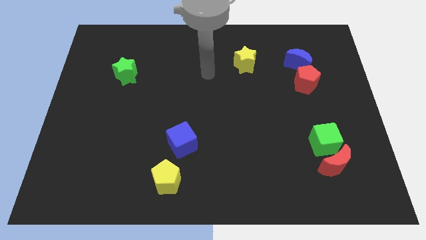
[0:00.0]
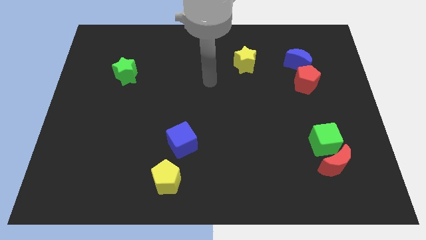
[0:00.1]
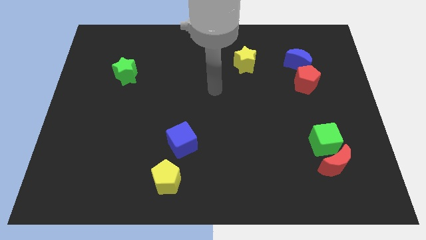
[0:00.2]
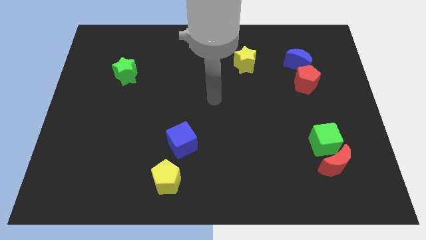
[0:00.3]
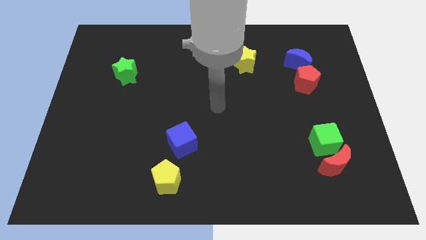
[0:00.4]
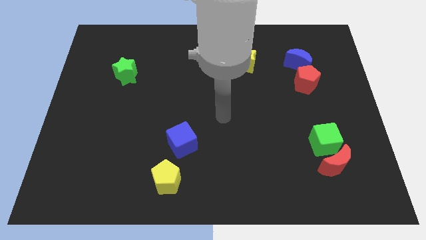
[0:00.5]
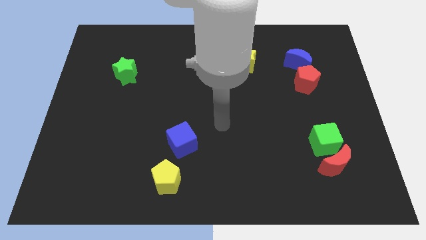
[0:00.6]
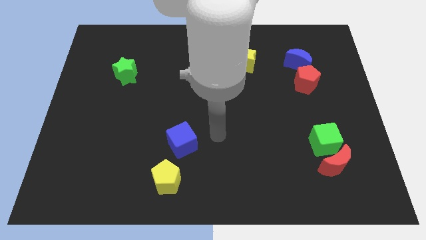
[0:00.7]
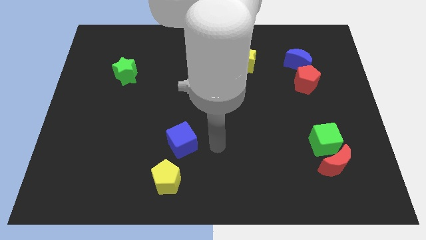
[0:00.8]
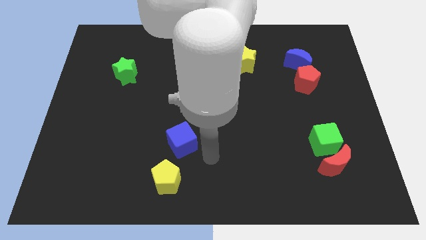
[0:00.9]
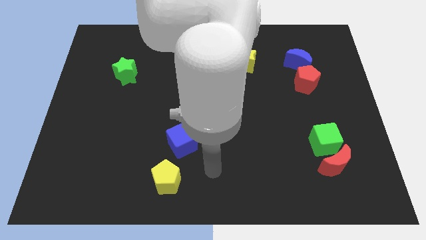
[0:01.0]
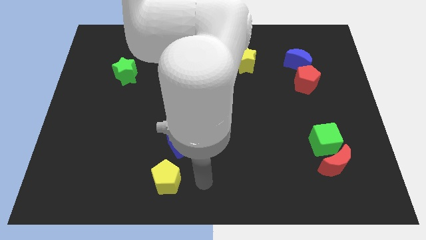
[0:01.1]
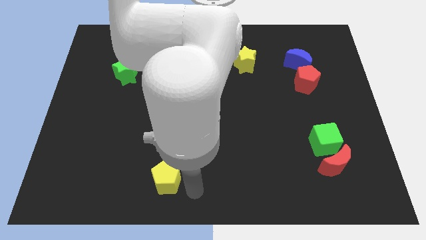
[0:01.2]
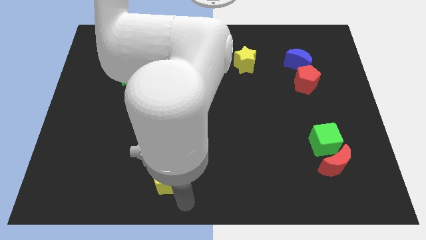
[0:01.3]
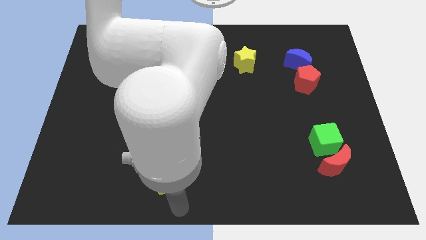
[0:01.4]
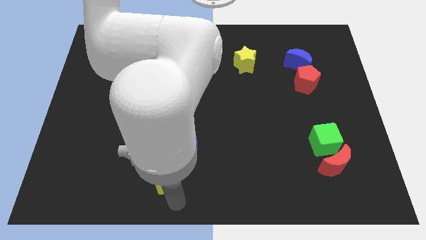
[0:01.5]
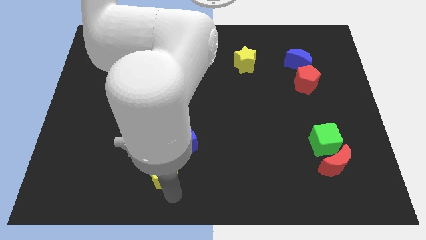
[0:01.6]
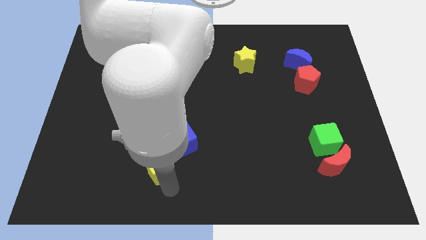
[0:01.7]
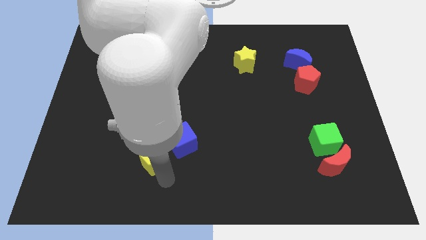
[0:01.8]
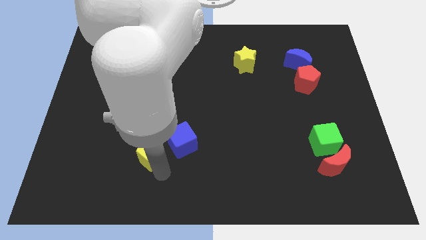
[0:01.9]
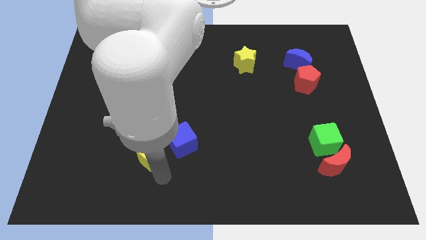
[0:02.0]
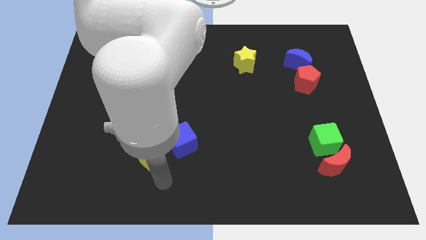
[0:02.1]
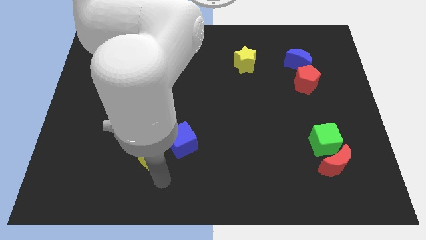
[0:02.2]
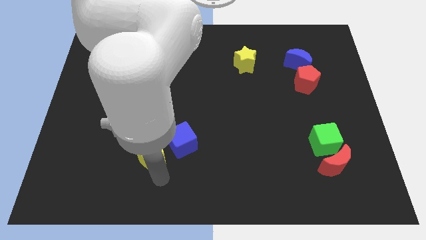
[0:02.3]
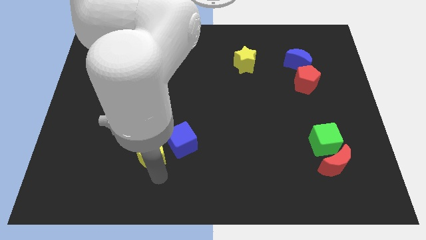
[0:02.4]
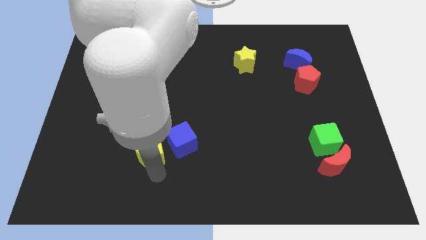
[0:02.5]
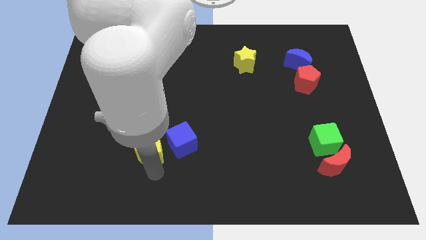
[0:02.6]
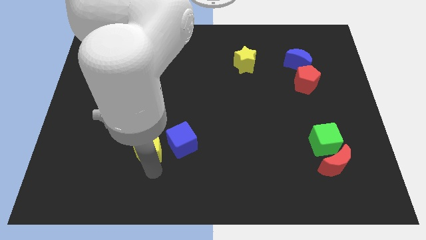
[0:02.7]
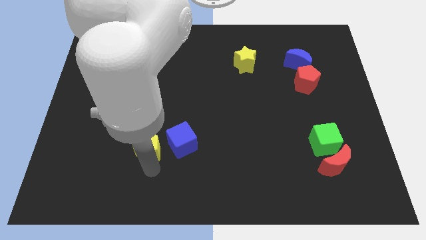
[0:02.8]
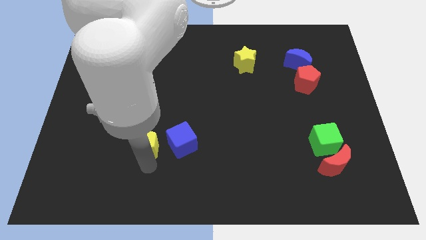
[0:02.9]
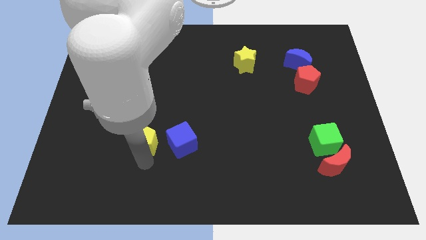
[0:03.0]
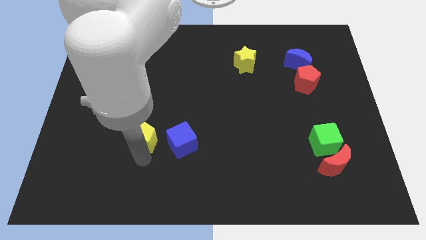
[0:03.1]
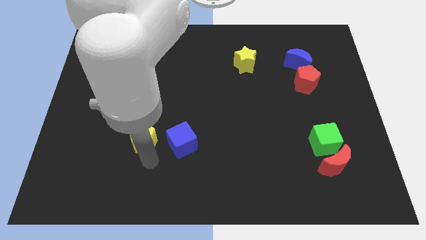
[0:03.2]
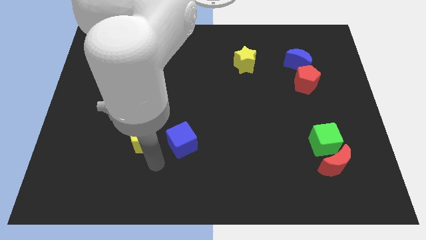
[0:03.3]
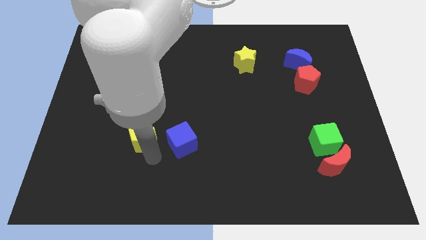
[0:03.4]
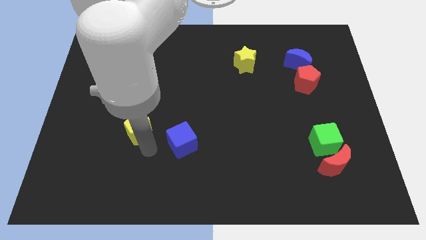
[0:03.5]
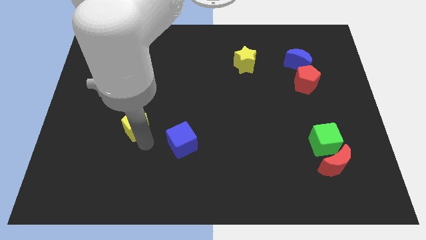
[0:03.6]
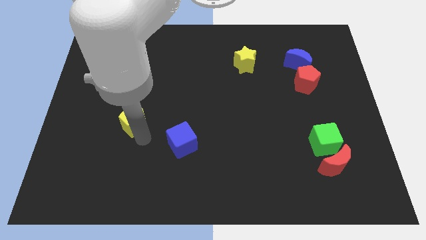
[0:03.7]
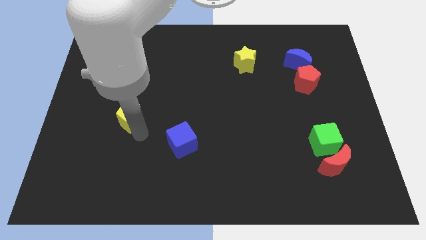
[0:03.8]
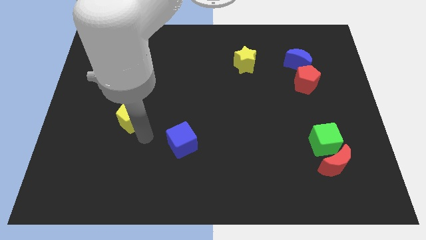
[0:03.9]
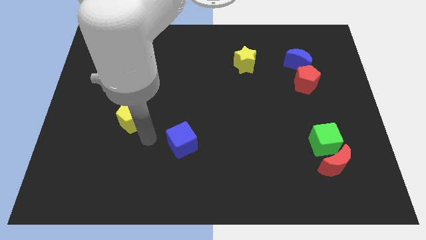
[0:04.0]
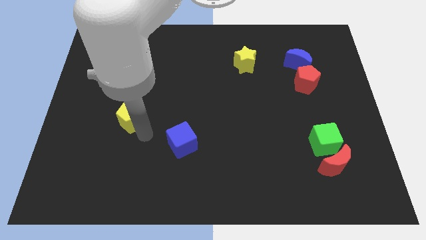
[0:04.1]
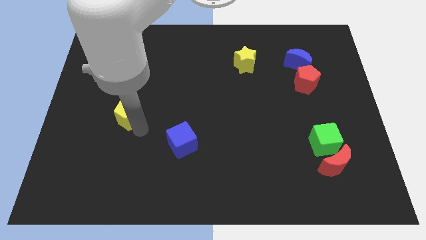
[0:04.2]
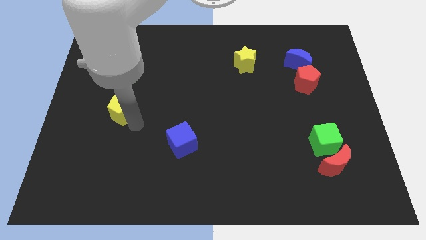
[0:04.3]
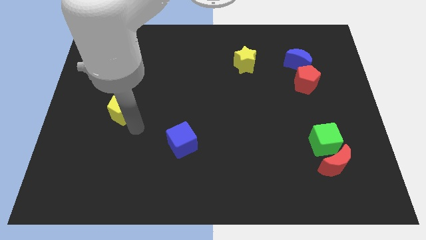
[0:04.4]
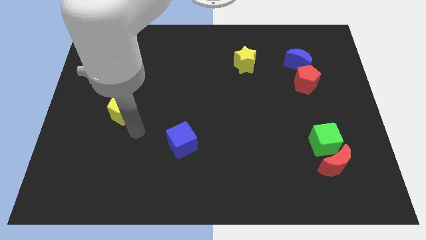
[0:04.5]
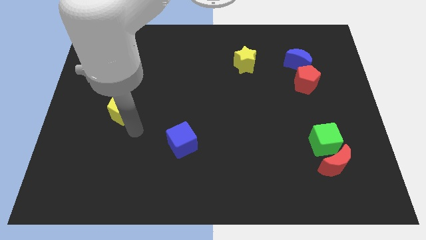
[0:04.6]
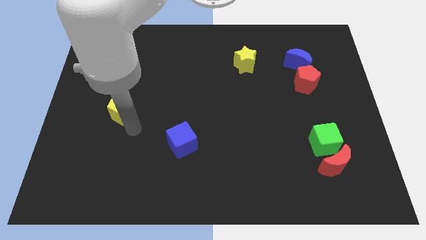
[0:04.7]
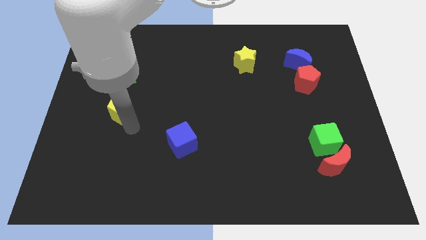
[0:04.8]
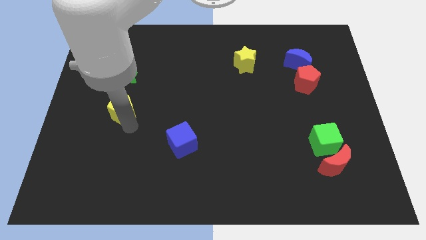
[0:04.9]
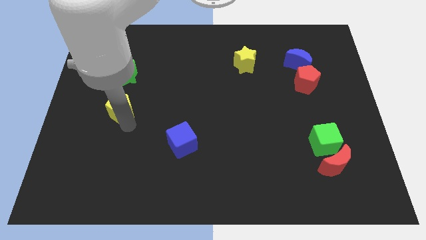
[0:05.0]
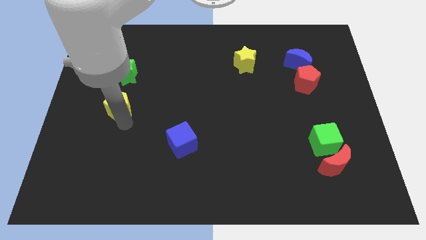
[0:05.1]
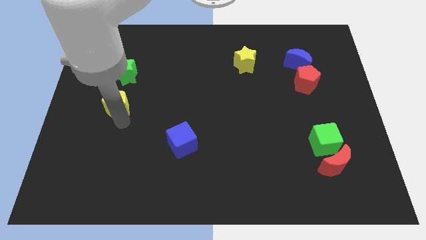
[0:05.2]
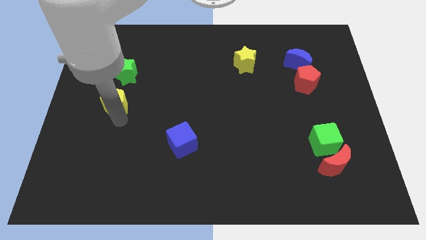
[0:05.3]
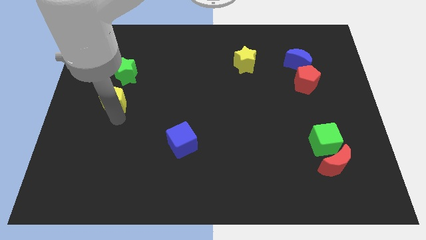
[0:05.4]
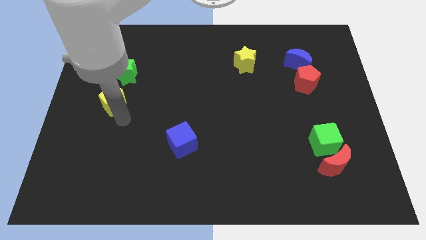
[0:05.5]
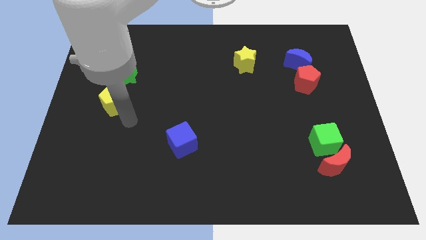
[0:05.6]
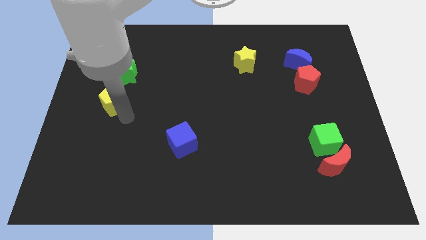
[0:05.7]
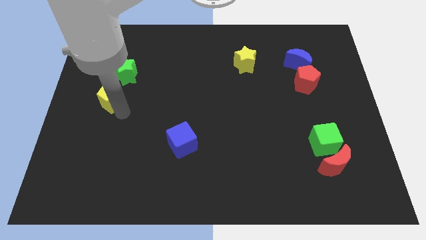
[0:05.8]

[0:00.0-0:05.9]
push the yellow pentagon diagonally down and to the left of the green star

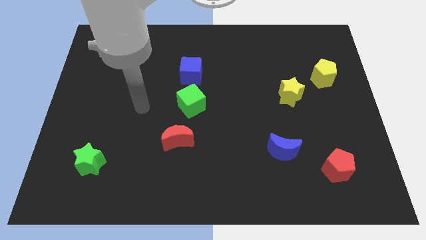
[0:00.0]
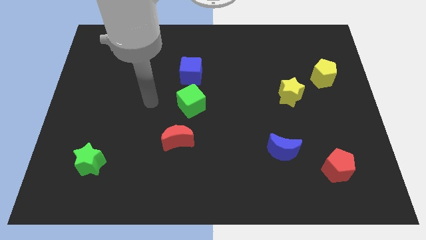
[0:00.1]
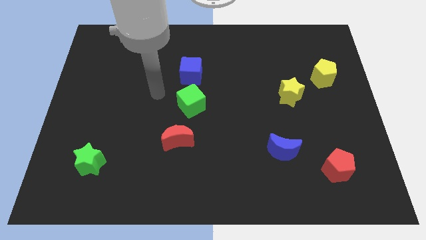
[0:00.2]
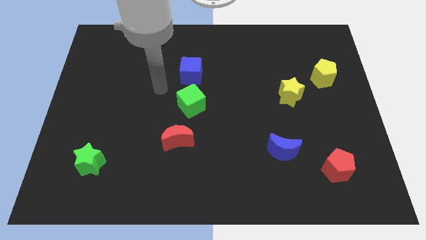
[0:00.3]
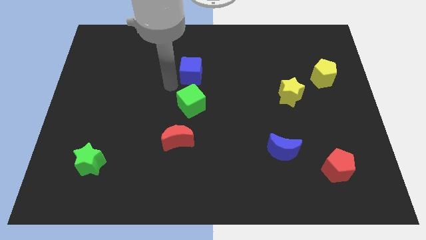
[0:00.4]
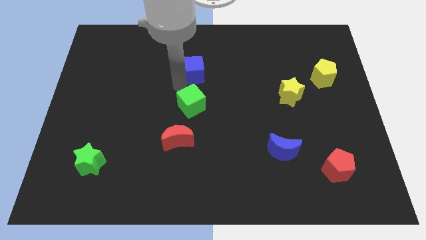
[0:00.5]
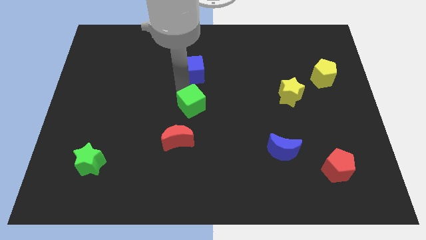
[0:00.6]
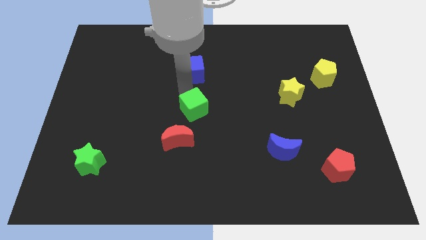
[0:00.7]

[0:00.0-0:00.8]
slide the green cube to the top right of the red moon
